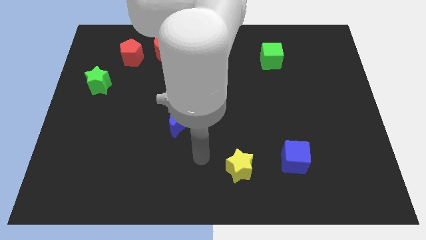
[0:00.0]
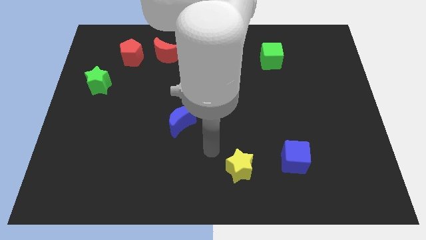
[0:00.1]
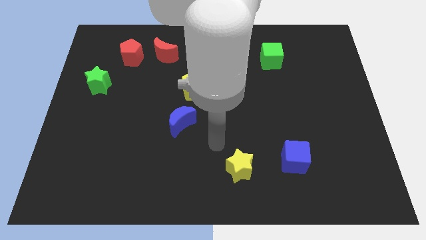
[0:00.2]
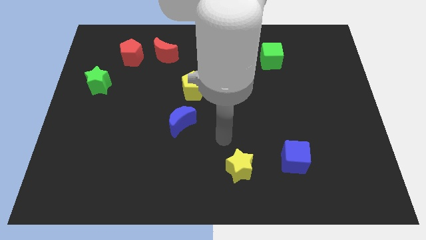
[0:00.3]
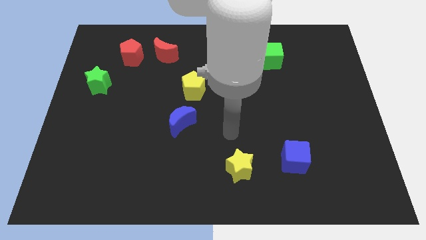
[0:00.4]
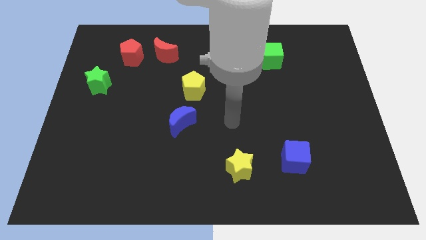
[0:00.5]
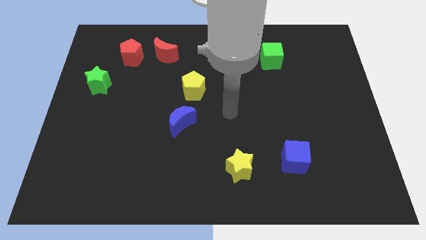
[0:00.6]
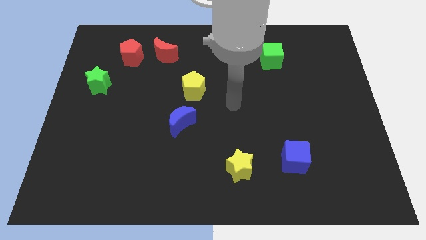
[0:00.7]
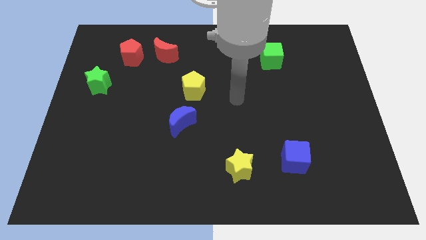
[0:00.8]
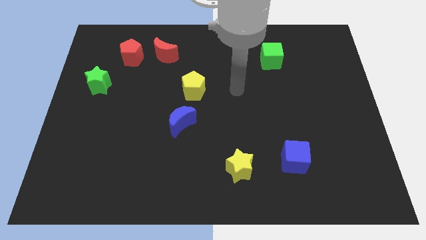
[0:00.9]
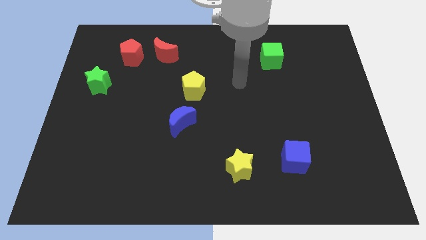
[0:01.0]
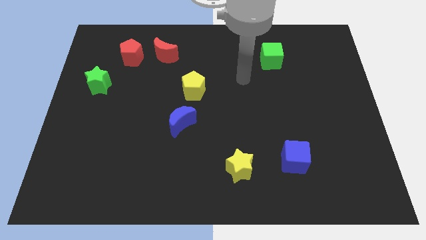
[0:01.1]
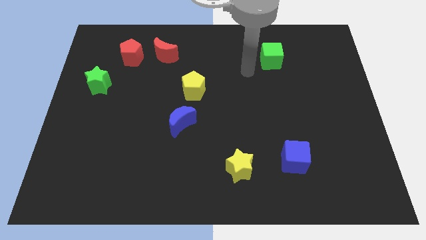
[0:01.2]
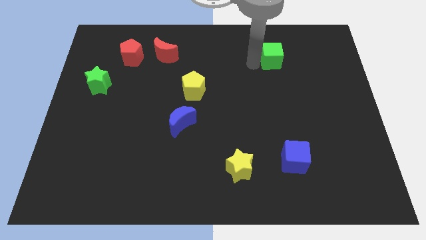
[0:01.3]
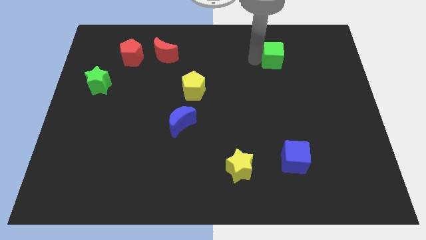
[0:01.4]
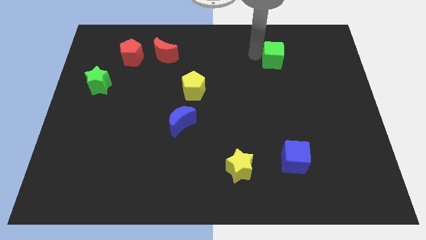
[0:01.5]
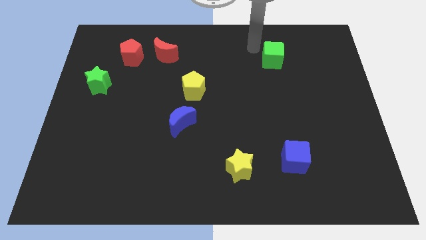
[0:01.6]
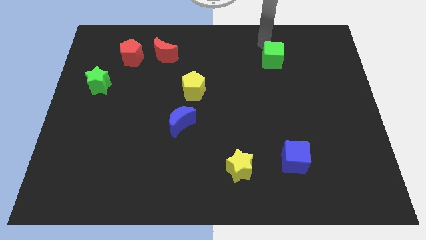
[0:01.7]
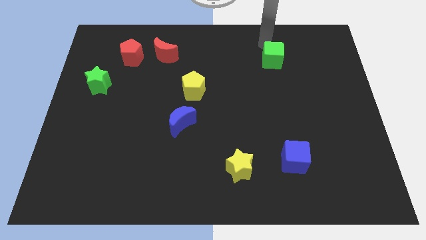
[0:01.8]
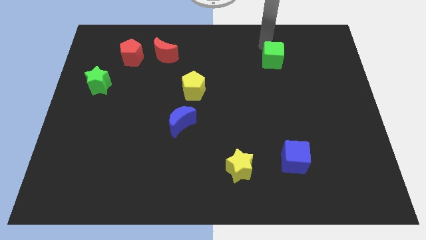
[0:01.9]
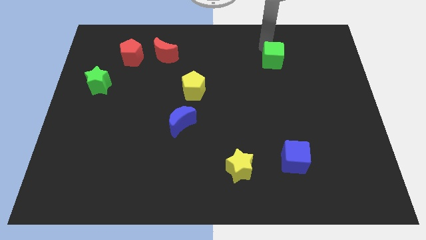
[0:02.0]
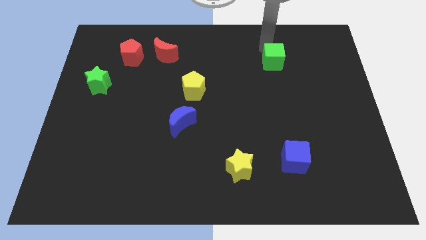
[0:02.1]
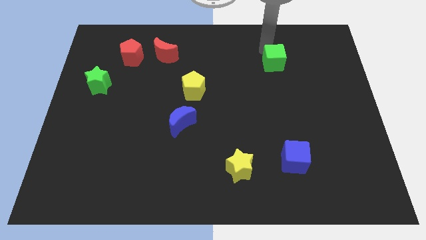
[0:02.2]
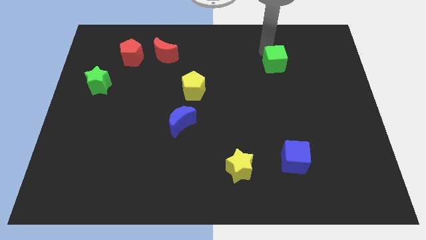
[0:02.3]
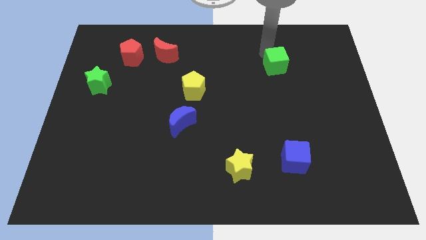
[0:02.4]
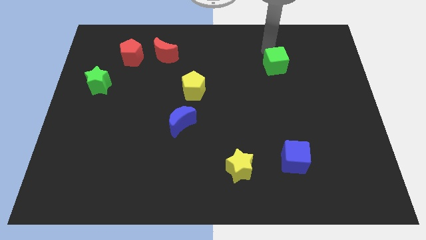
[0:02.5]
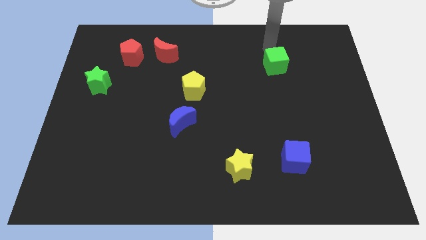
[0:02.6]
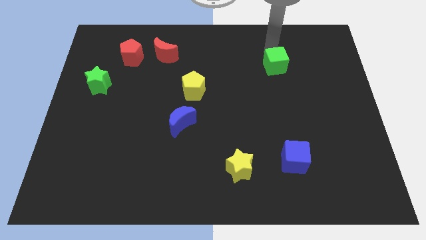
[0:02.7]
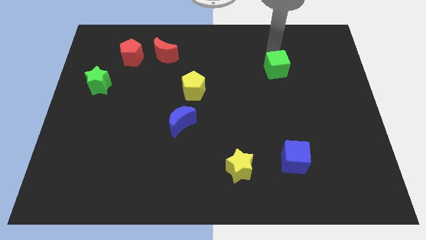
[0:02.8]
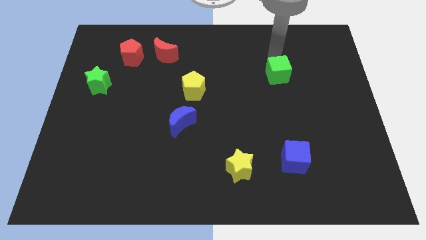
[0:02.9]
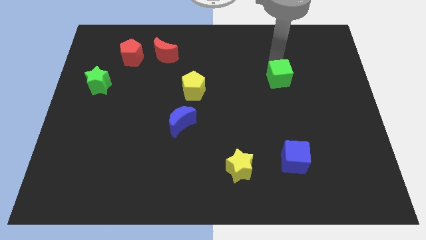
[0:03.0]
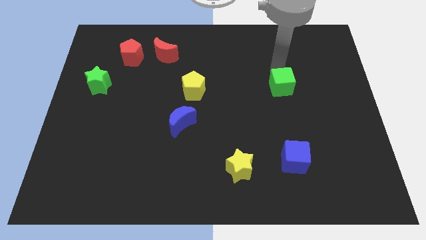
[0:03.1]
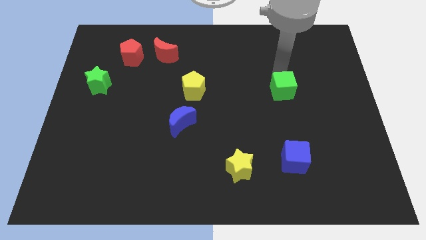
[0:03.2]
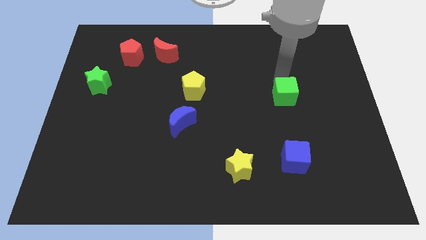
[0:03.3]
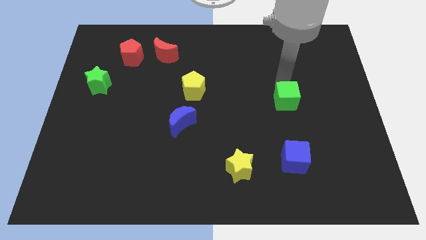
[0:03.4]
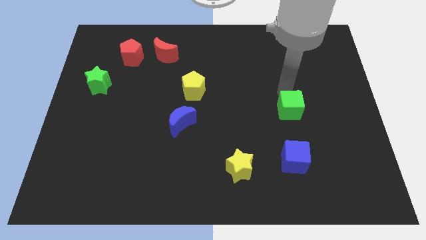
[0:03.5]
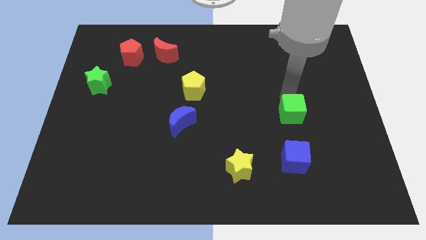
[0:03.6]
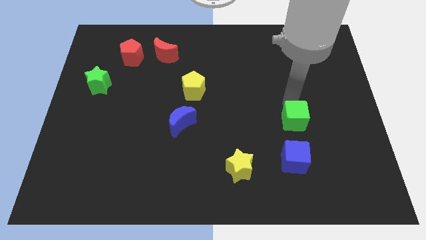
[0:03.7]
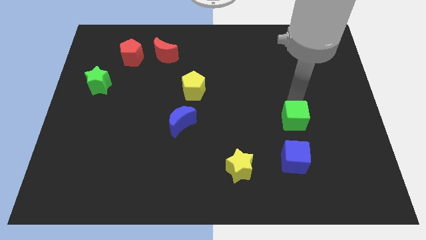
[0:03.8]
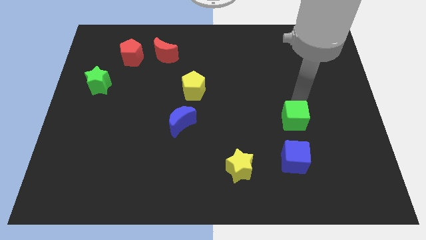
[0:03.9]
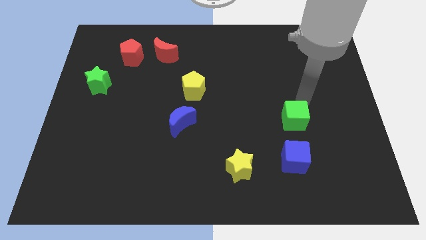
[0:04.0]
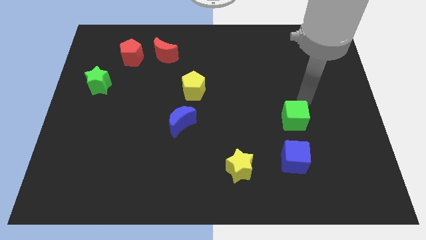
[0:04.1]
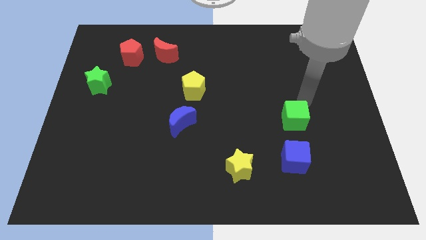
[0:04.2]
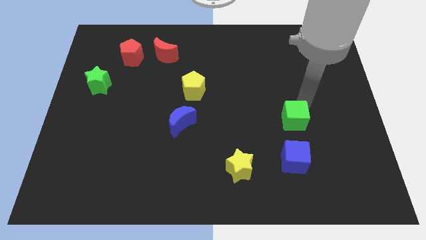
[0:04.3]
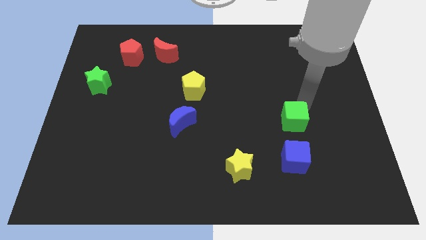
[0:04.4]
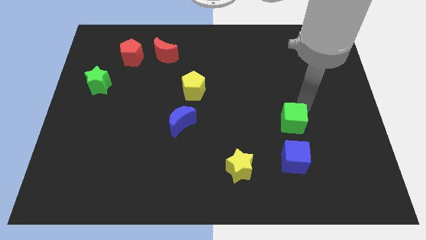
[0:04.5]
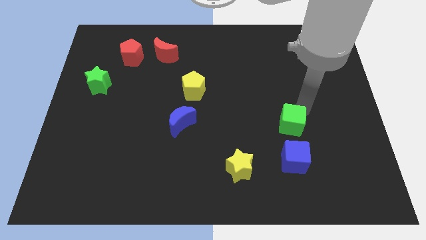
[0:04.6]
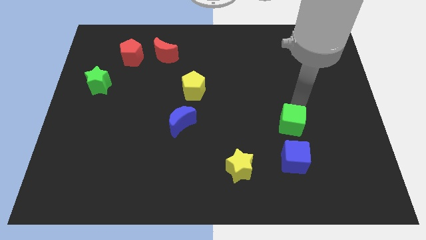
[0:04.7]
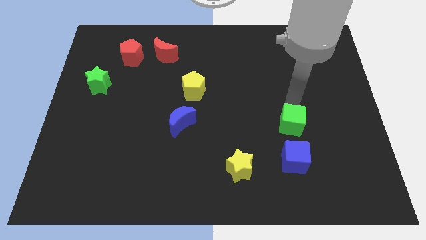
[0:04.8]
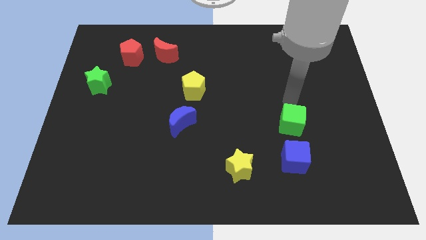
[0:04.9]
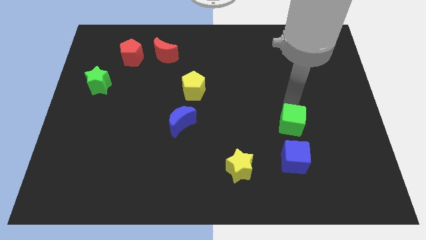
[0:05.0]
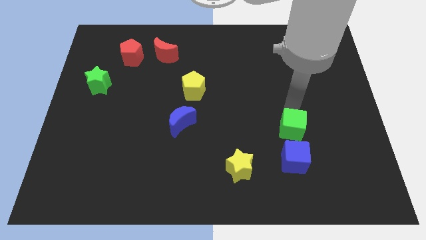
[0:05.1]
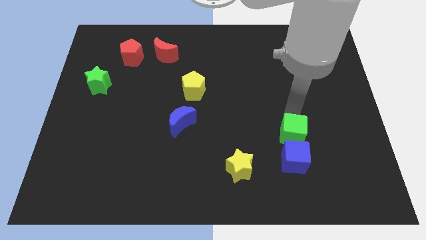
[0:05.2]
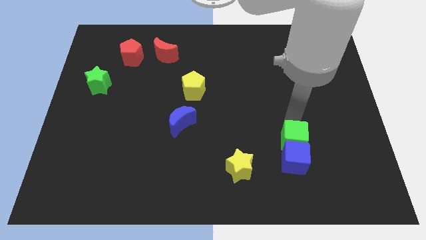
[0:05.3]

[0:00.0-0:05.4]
push the green cube close to the blue cube

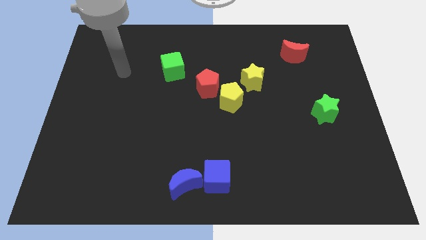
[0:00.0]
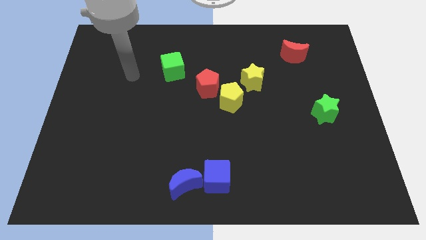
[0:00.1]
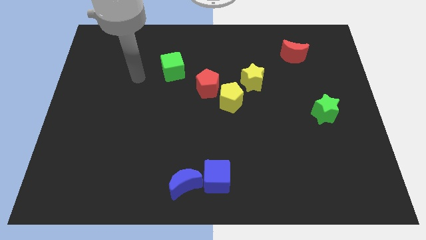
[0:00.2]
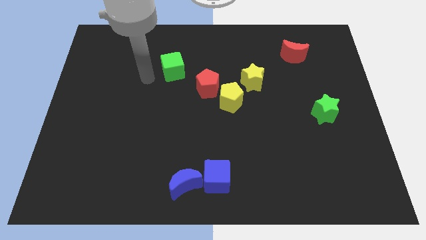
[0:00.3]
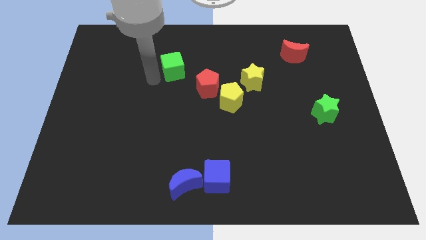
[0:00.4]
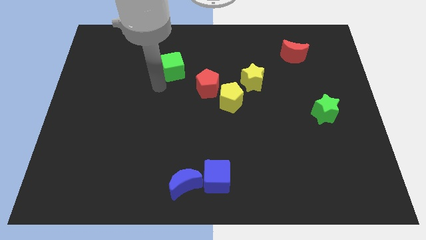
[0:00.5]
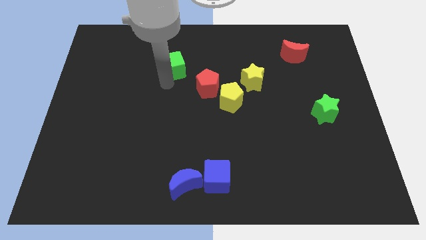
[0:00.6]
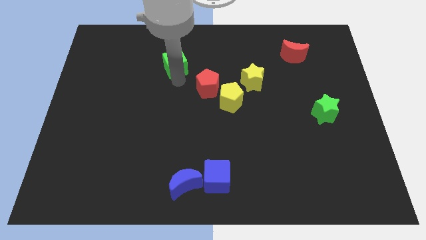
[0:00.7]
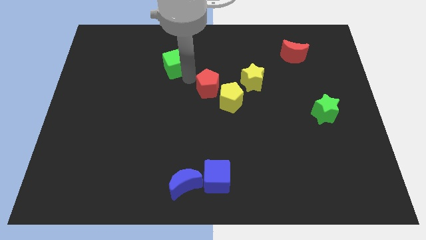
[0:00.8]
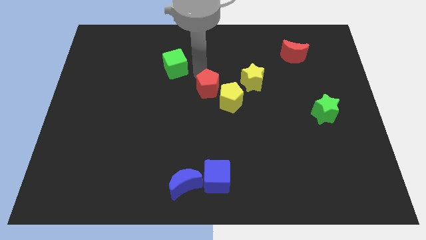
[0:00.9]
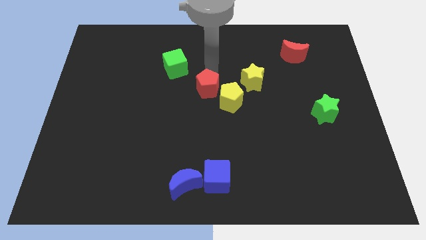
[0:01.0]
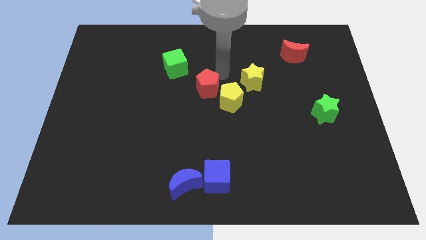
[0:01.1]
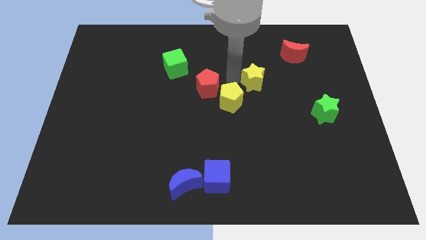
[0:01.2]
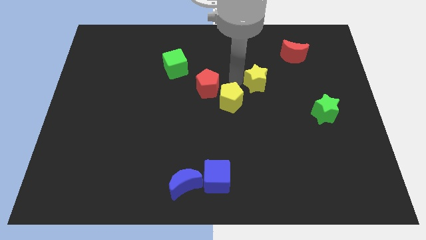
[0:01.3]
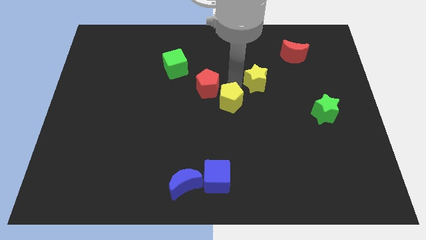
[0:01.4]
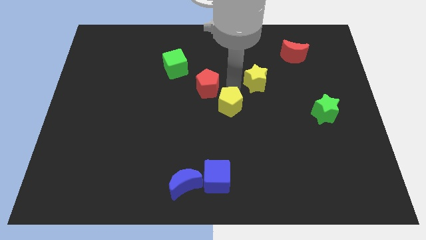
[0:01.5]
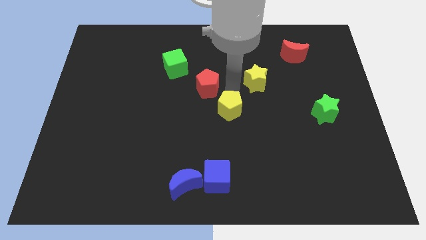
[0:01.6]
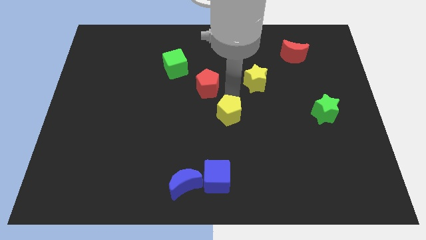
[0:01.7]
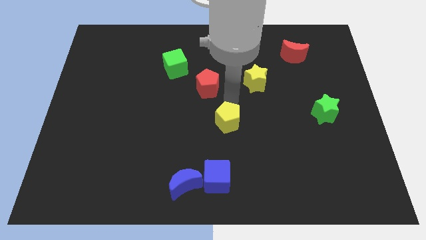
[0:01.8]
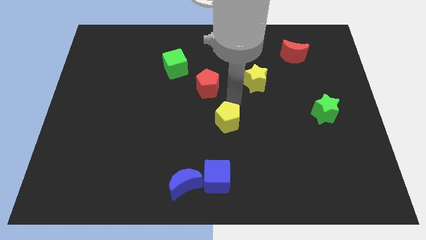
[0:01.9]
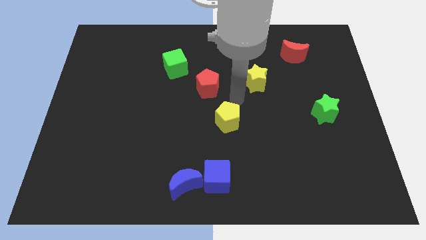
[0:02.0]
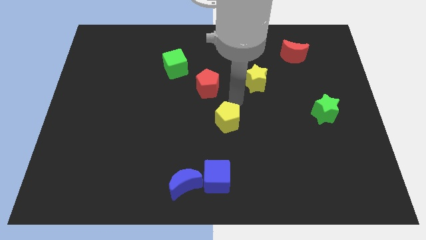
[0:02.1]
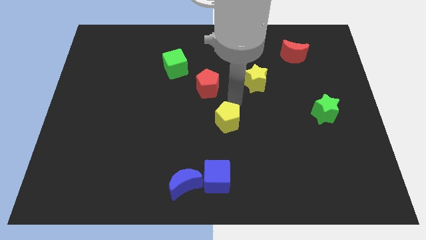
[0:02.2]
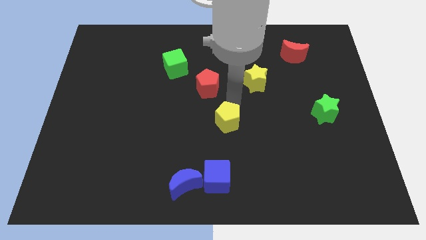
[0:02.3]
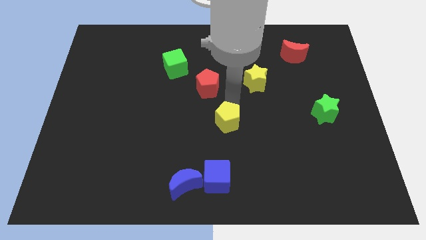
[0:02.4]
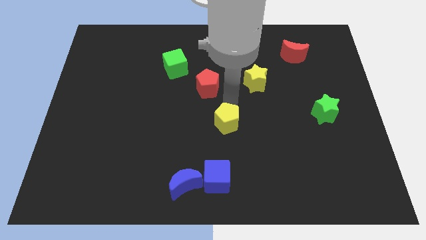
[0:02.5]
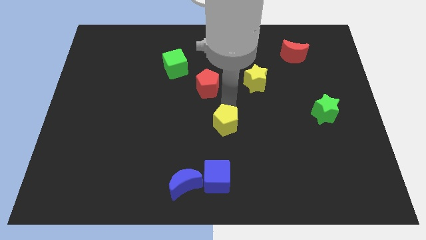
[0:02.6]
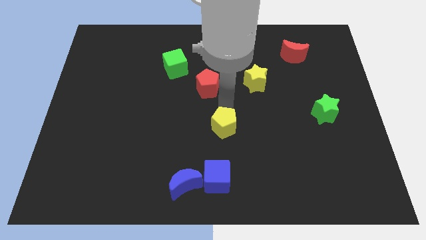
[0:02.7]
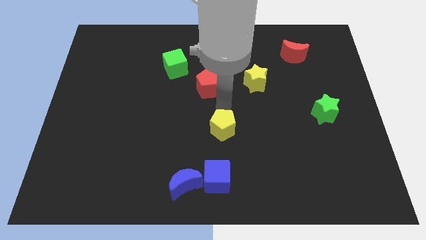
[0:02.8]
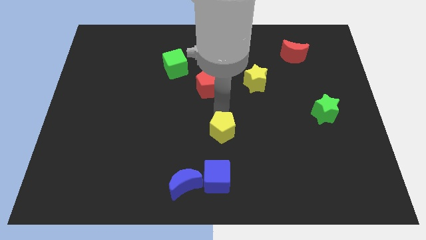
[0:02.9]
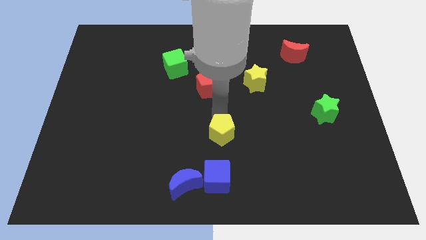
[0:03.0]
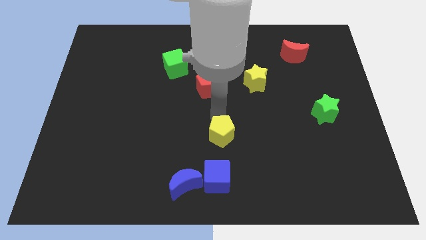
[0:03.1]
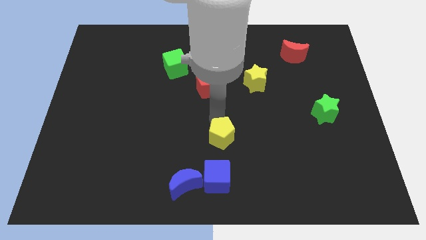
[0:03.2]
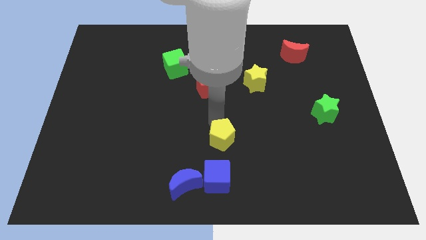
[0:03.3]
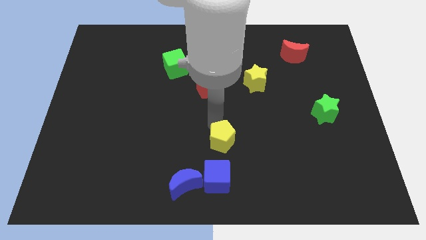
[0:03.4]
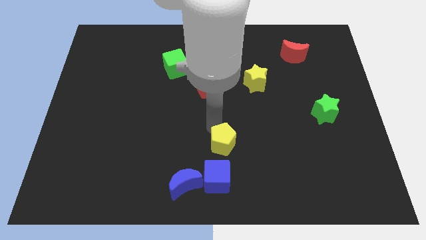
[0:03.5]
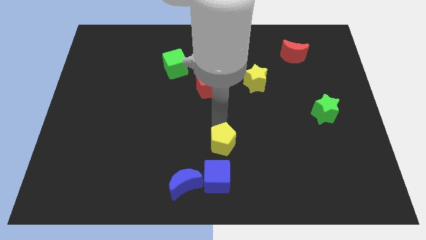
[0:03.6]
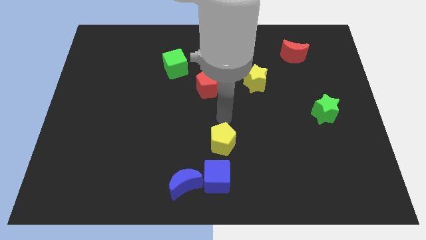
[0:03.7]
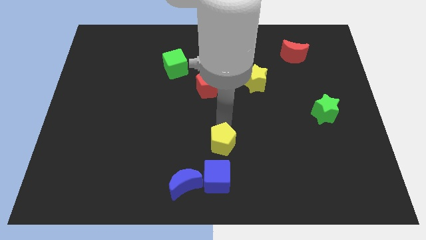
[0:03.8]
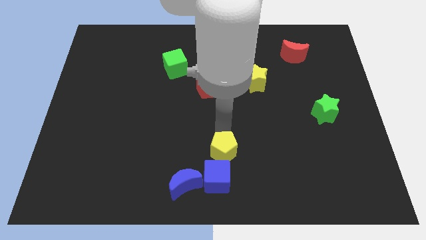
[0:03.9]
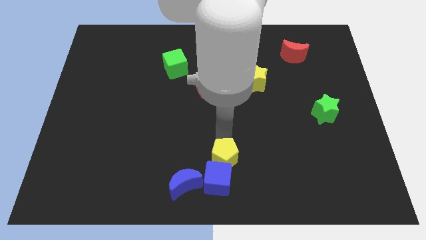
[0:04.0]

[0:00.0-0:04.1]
move the yellow pentagon to the blue cube
